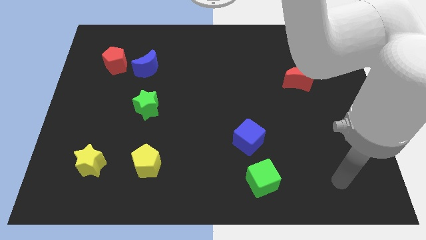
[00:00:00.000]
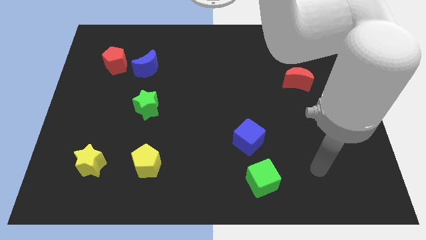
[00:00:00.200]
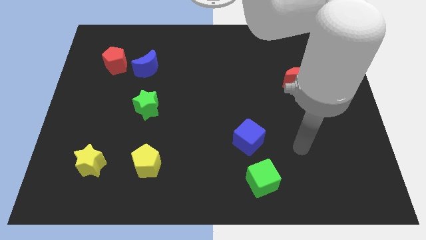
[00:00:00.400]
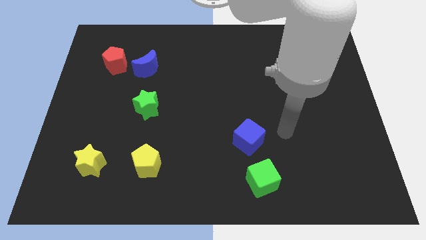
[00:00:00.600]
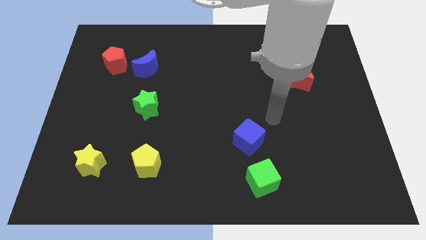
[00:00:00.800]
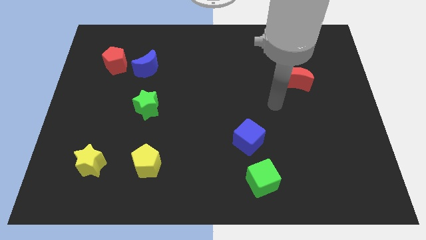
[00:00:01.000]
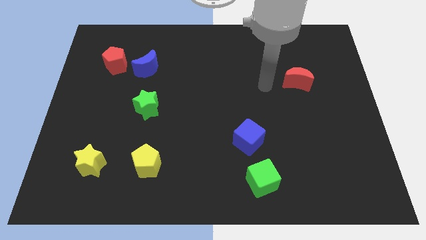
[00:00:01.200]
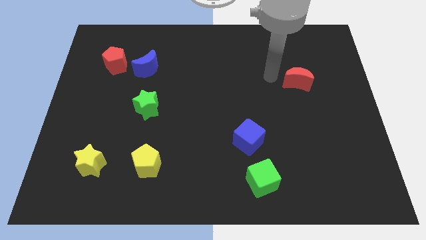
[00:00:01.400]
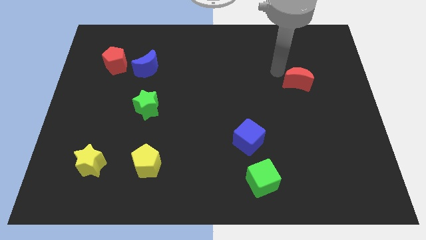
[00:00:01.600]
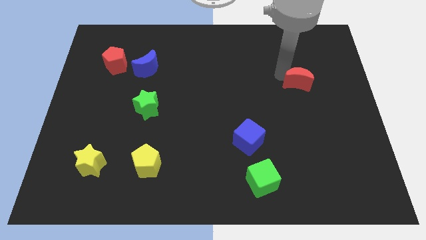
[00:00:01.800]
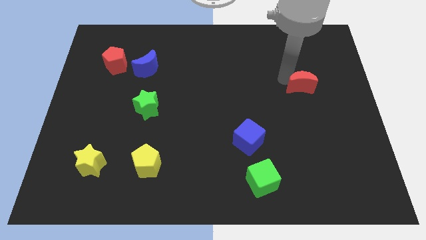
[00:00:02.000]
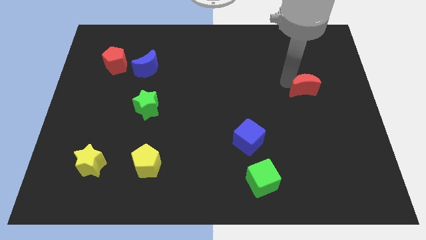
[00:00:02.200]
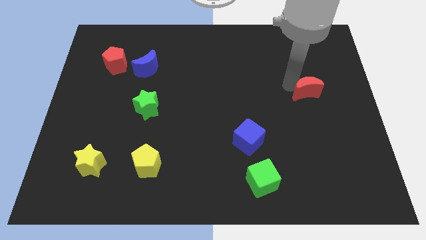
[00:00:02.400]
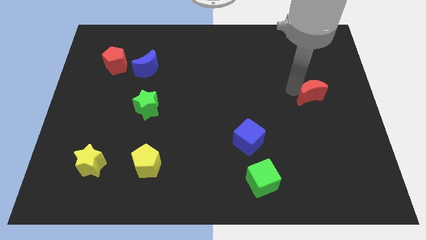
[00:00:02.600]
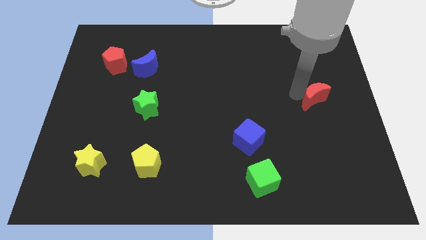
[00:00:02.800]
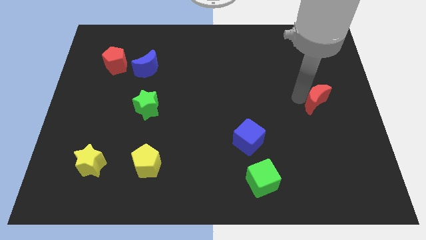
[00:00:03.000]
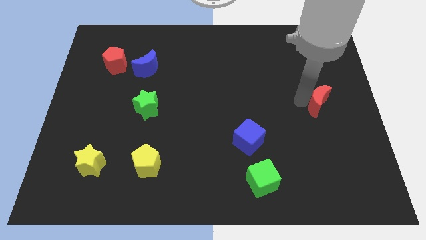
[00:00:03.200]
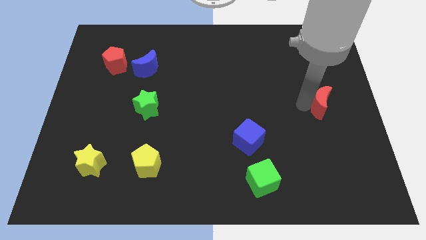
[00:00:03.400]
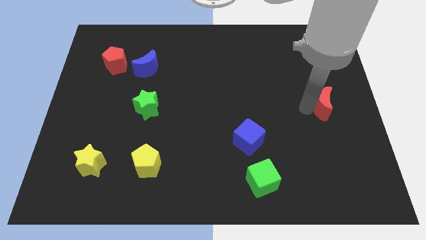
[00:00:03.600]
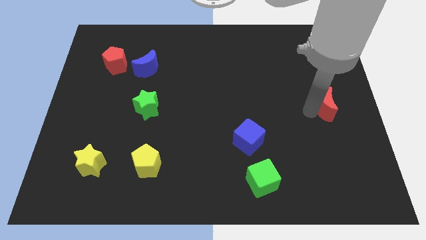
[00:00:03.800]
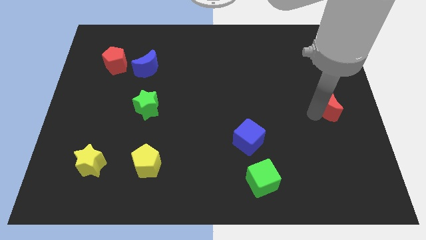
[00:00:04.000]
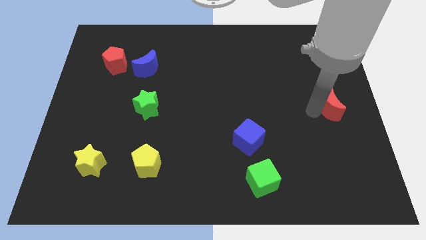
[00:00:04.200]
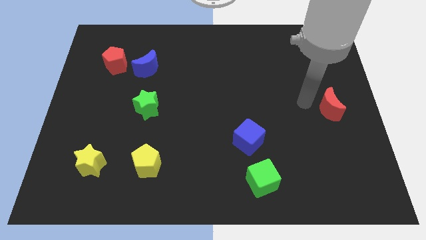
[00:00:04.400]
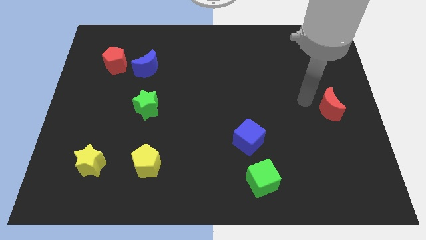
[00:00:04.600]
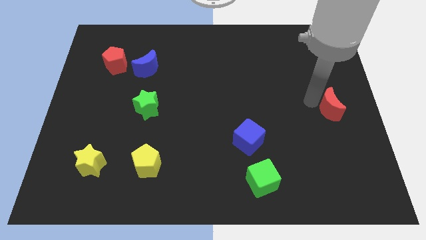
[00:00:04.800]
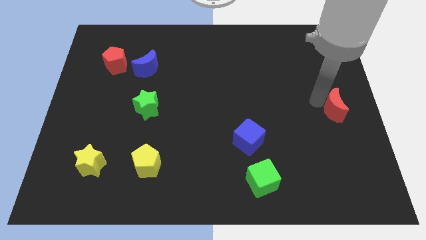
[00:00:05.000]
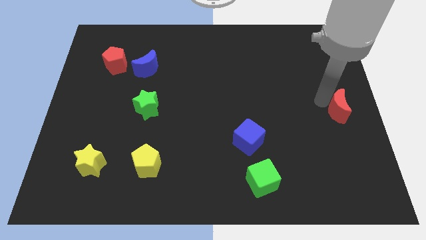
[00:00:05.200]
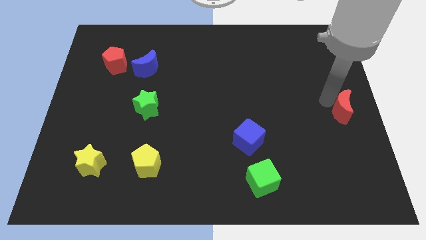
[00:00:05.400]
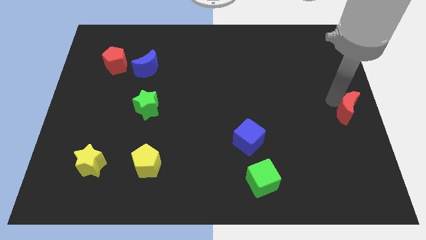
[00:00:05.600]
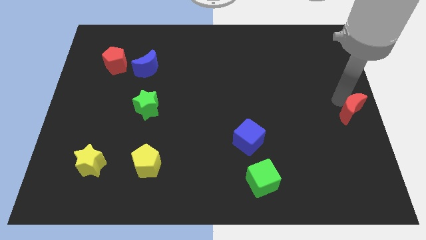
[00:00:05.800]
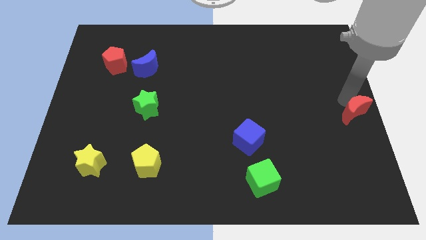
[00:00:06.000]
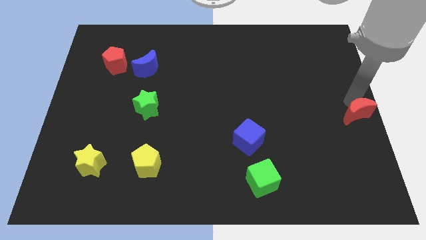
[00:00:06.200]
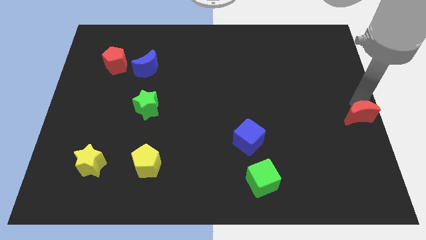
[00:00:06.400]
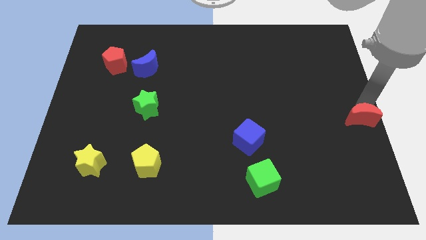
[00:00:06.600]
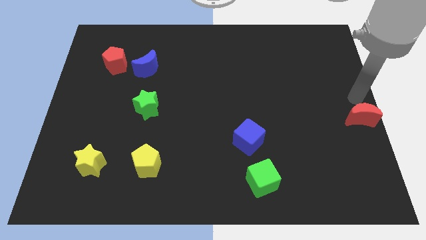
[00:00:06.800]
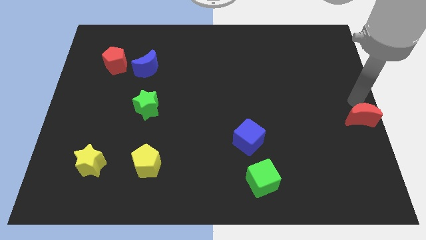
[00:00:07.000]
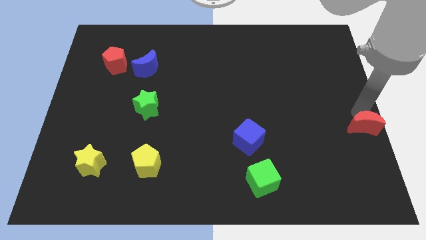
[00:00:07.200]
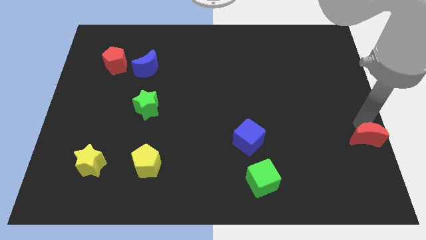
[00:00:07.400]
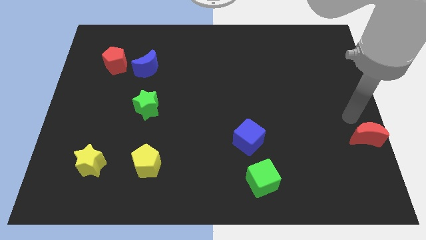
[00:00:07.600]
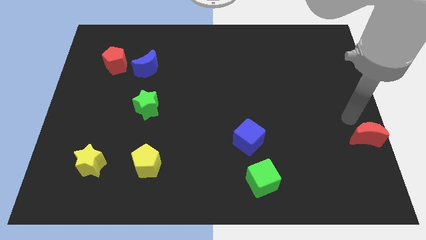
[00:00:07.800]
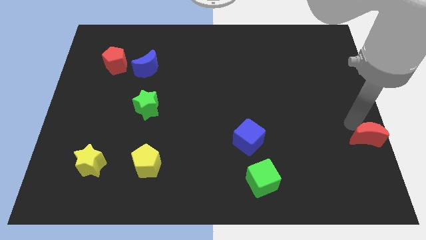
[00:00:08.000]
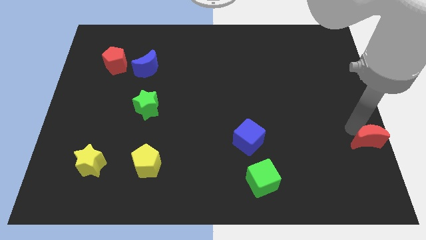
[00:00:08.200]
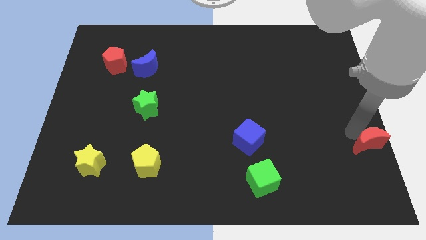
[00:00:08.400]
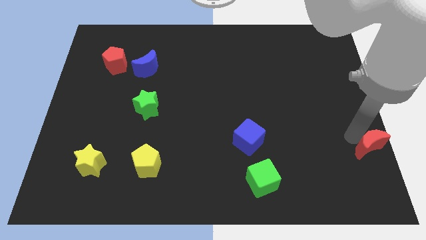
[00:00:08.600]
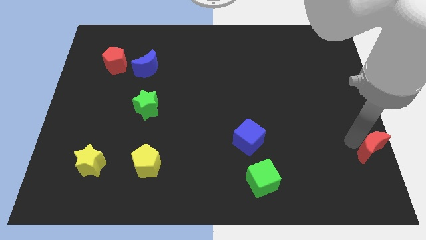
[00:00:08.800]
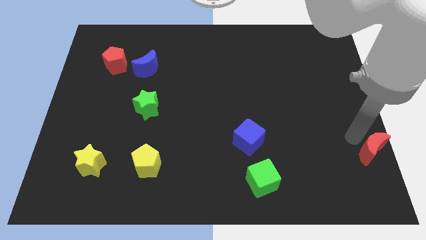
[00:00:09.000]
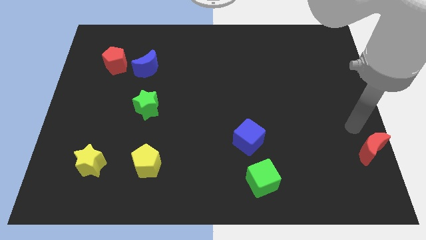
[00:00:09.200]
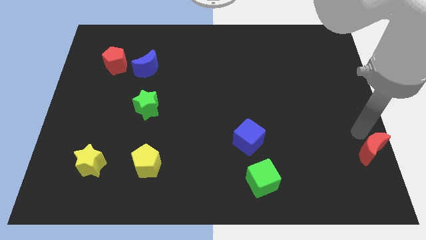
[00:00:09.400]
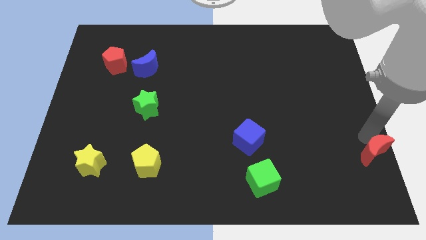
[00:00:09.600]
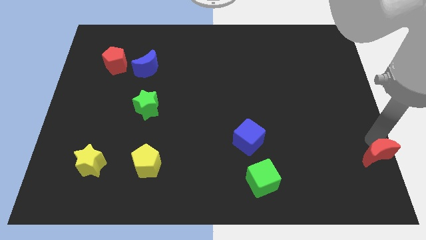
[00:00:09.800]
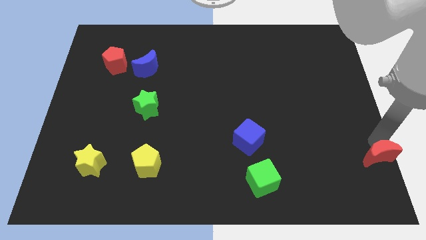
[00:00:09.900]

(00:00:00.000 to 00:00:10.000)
move the red moon to the lower right corner

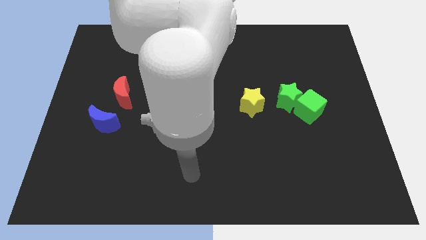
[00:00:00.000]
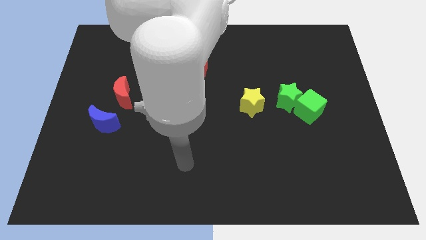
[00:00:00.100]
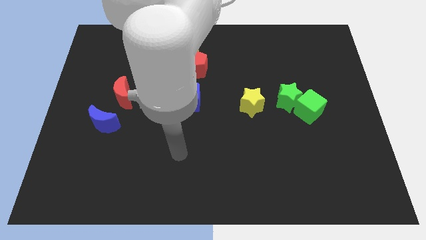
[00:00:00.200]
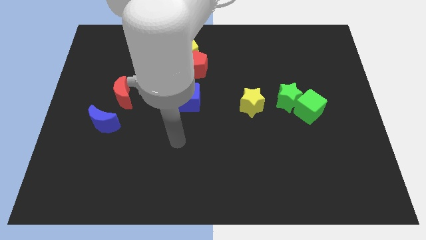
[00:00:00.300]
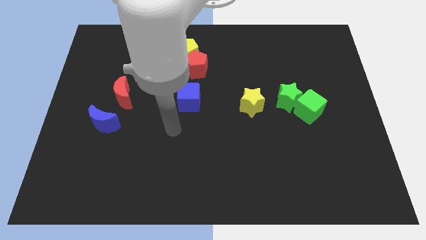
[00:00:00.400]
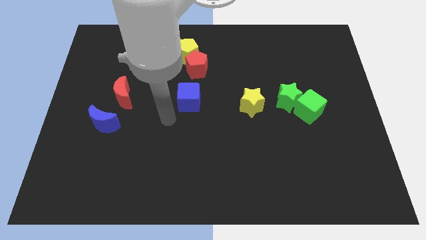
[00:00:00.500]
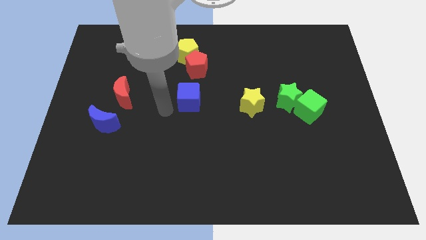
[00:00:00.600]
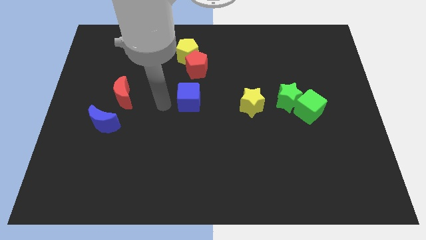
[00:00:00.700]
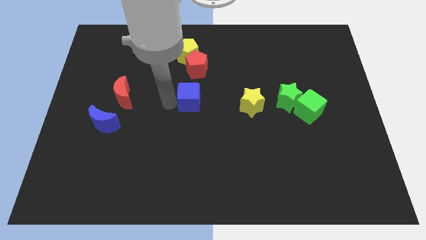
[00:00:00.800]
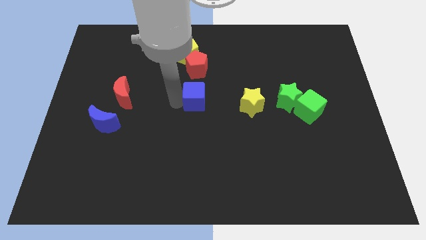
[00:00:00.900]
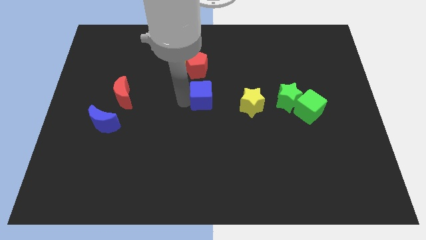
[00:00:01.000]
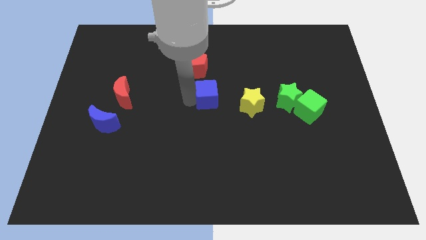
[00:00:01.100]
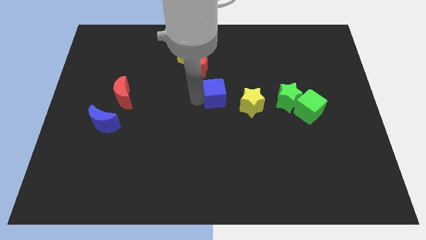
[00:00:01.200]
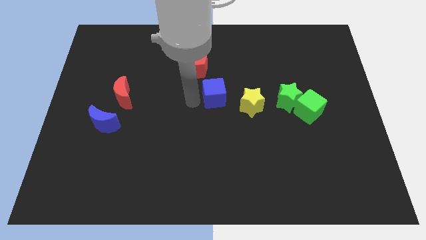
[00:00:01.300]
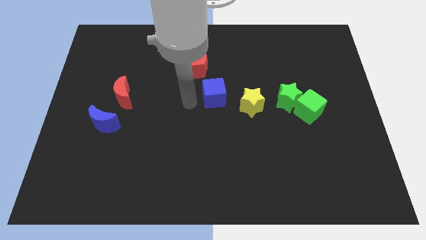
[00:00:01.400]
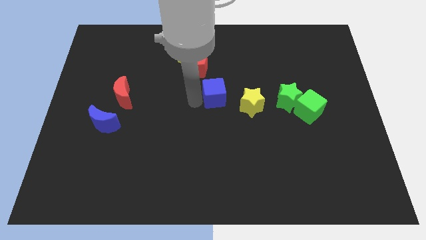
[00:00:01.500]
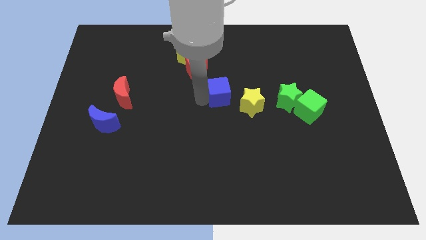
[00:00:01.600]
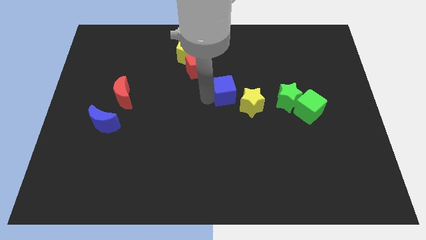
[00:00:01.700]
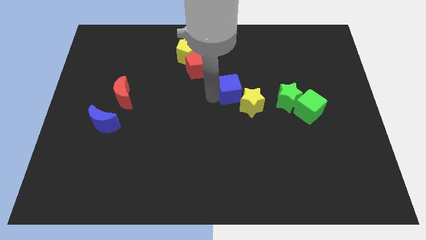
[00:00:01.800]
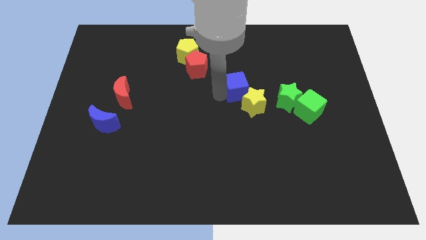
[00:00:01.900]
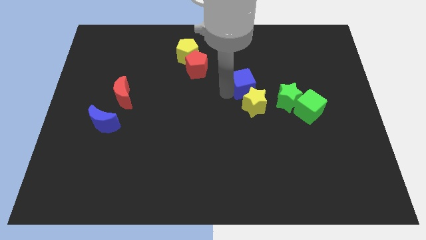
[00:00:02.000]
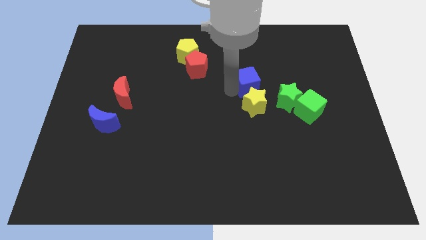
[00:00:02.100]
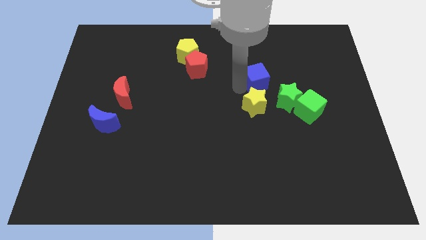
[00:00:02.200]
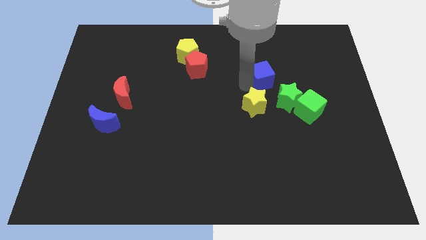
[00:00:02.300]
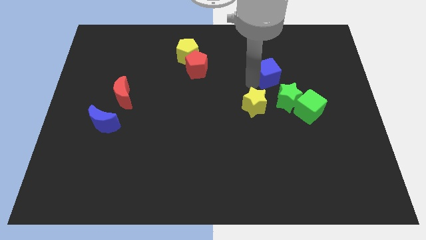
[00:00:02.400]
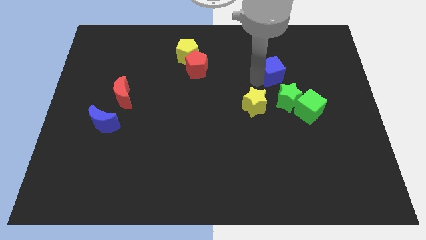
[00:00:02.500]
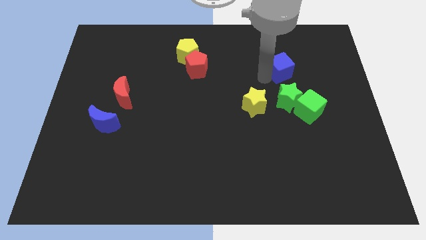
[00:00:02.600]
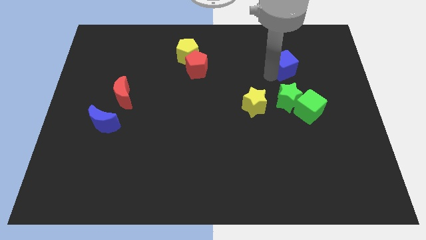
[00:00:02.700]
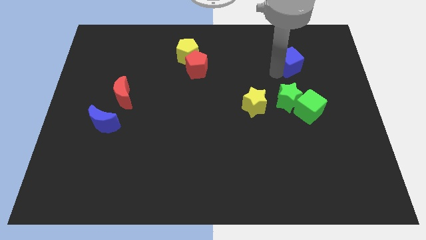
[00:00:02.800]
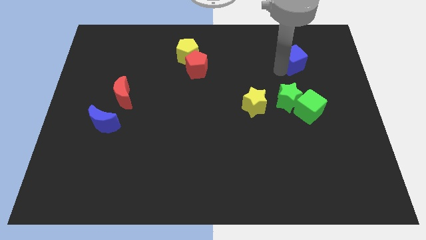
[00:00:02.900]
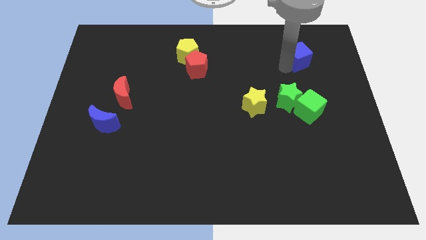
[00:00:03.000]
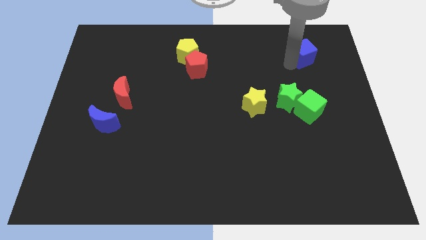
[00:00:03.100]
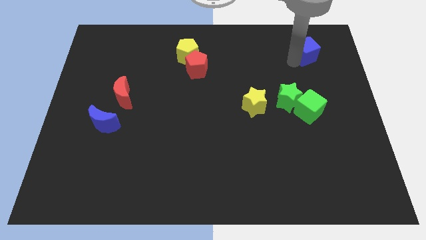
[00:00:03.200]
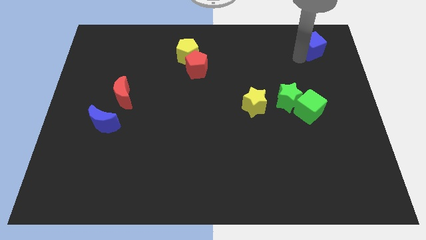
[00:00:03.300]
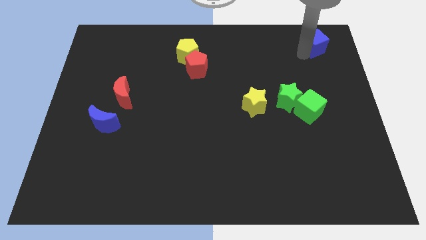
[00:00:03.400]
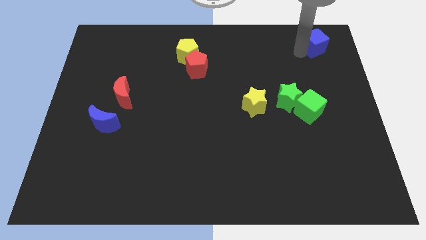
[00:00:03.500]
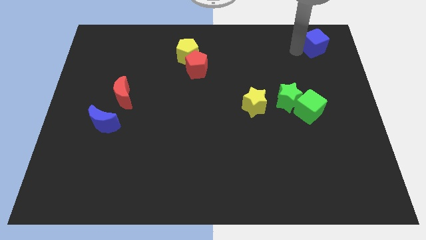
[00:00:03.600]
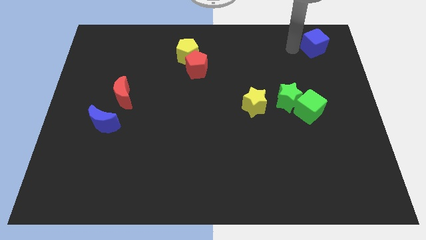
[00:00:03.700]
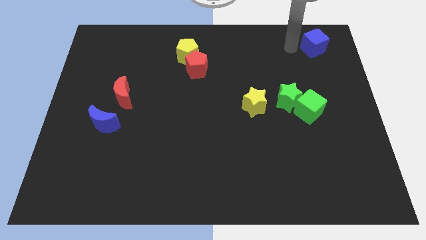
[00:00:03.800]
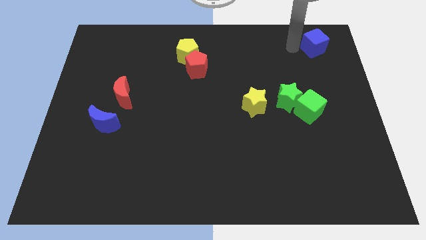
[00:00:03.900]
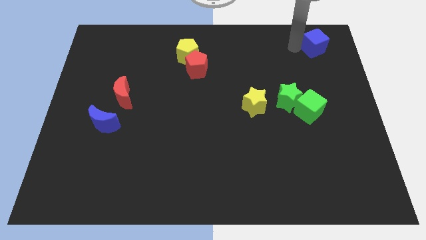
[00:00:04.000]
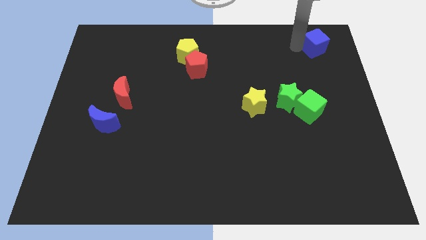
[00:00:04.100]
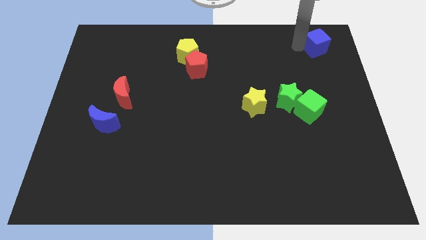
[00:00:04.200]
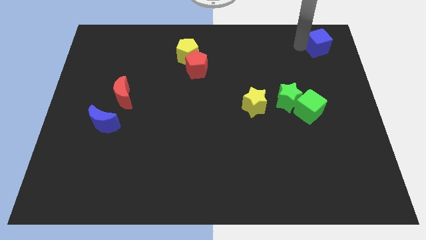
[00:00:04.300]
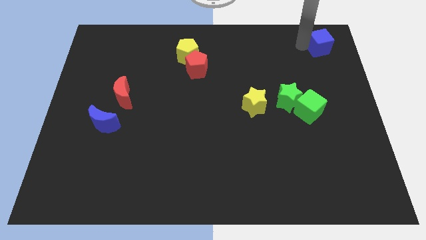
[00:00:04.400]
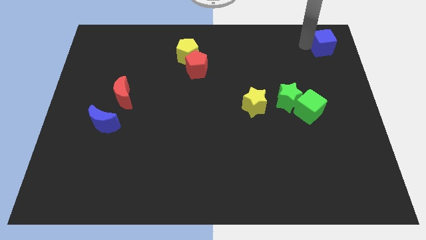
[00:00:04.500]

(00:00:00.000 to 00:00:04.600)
move the blue cube to the upper right corner
